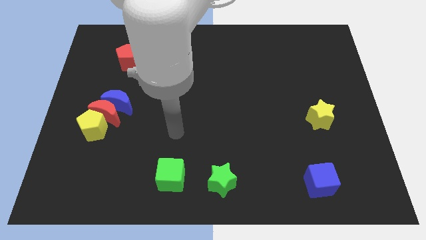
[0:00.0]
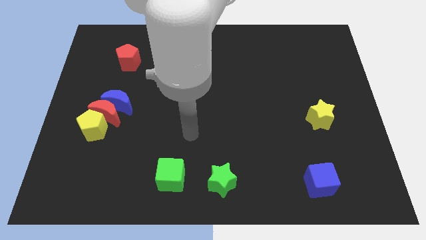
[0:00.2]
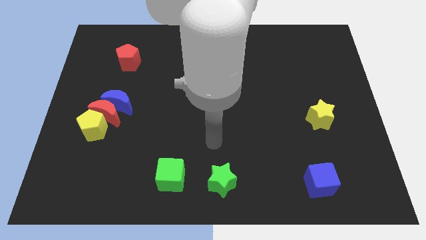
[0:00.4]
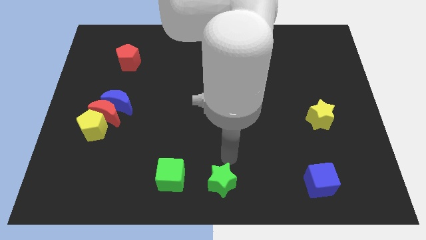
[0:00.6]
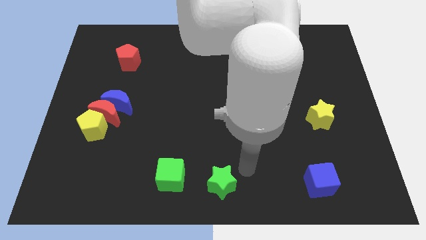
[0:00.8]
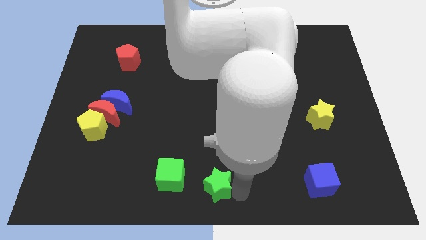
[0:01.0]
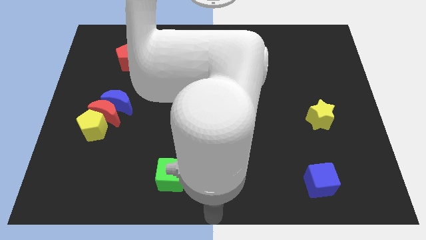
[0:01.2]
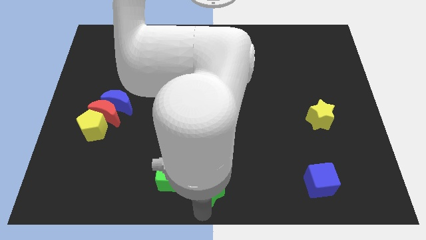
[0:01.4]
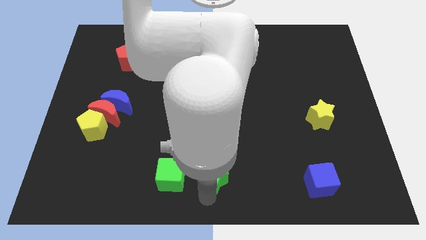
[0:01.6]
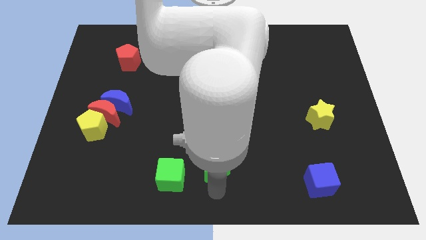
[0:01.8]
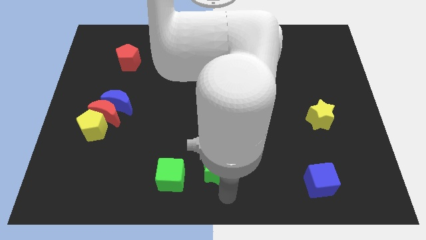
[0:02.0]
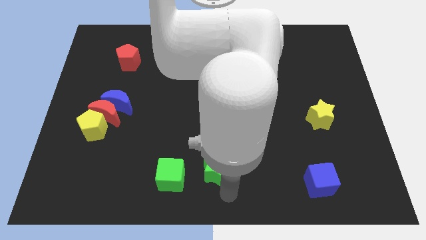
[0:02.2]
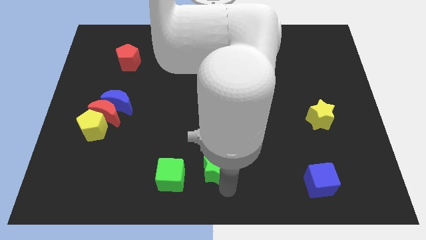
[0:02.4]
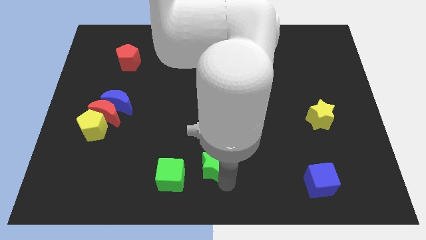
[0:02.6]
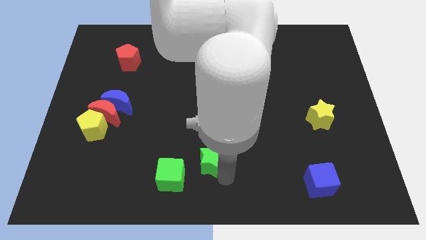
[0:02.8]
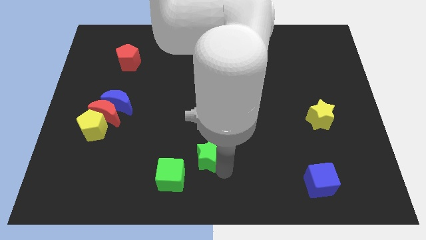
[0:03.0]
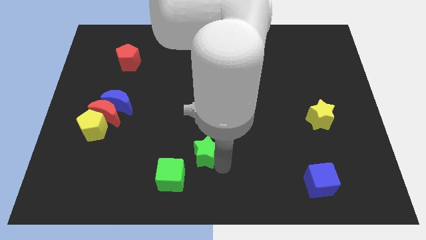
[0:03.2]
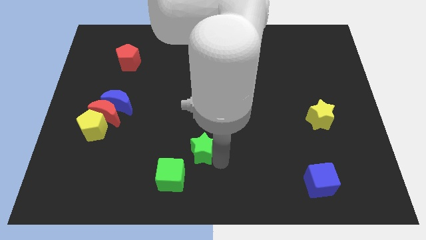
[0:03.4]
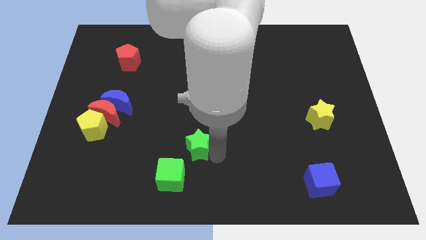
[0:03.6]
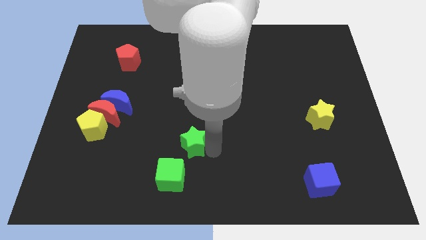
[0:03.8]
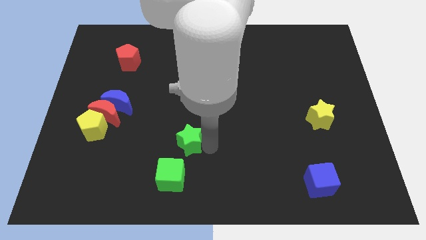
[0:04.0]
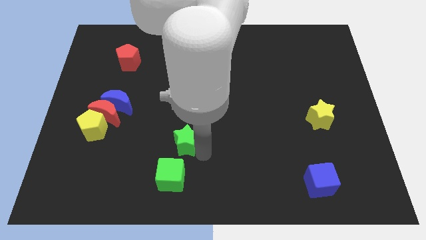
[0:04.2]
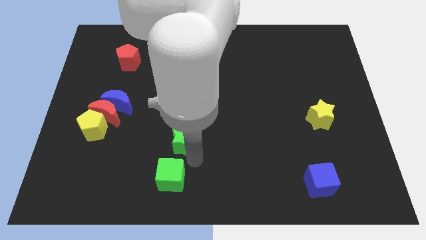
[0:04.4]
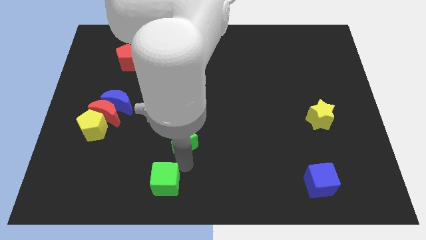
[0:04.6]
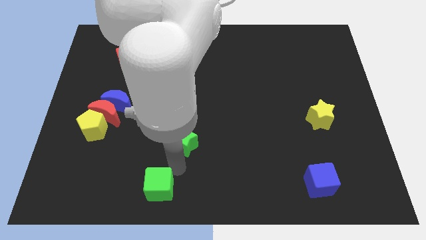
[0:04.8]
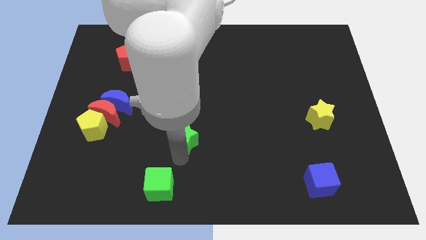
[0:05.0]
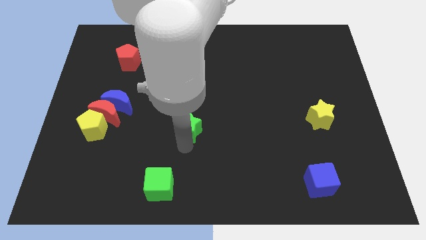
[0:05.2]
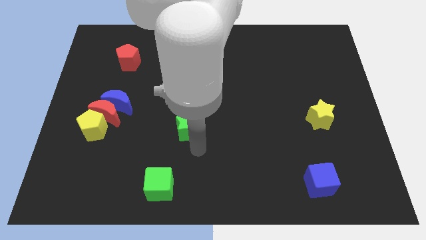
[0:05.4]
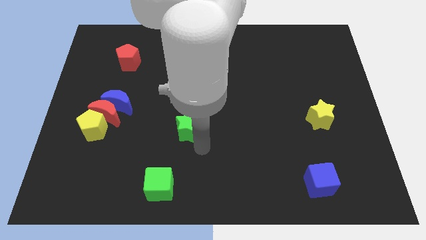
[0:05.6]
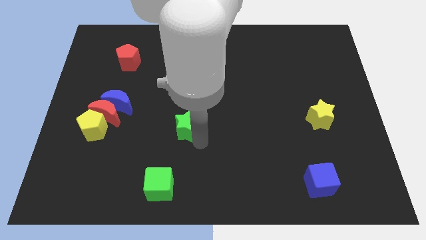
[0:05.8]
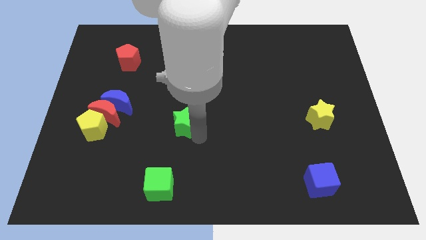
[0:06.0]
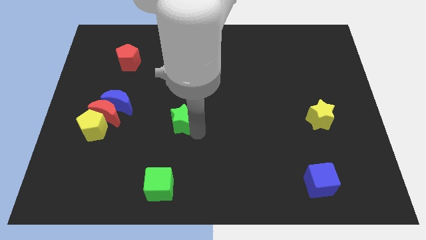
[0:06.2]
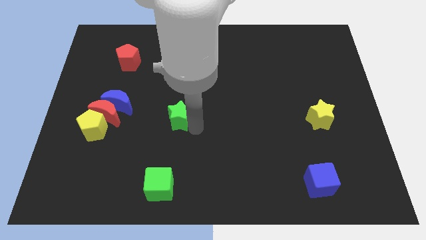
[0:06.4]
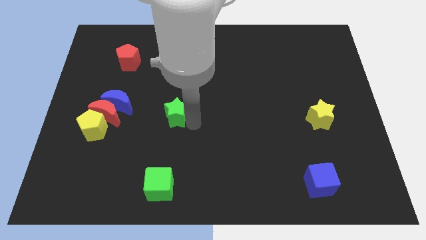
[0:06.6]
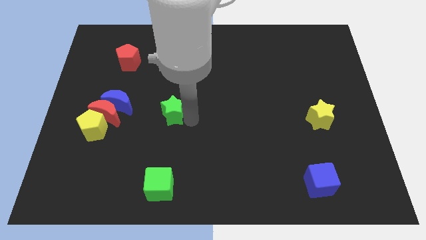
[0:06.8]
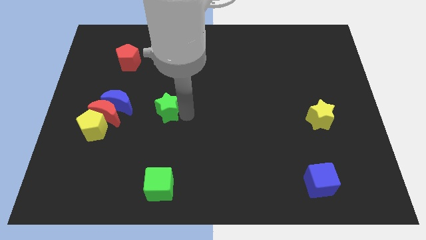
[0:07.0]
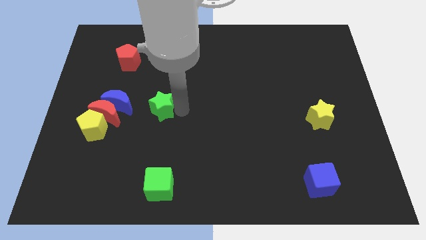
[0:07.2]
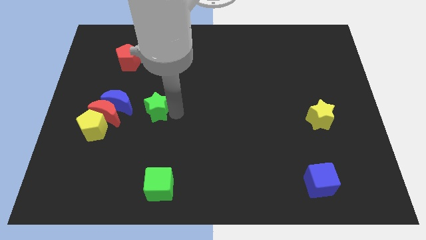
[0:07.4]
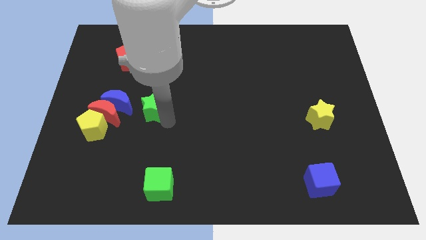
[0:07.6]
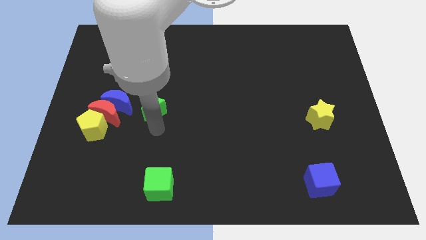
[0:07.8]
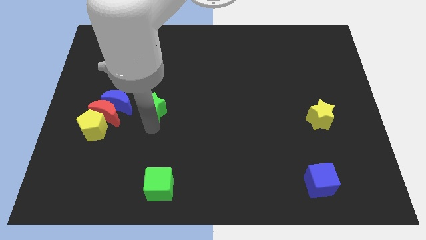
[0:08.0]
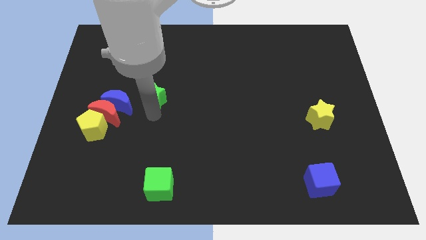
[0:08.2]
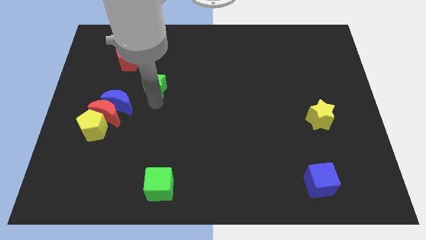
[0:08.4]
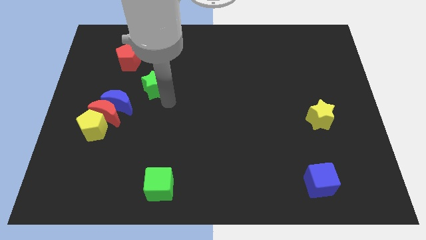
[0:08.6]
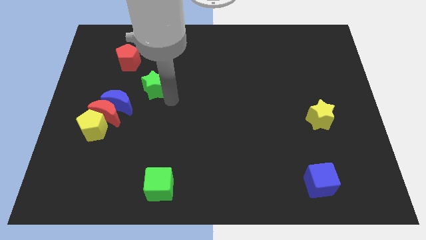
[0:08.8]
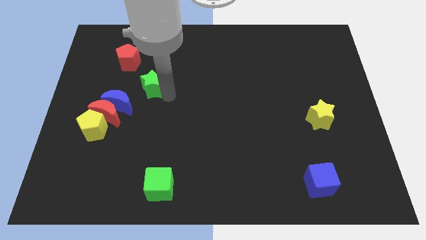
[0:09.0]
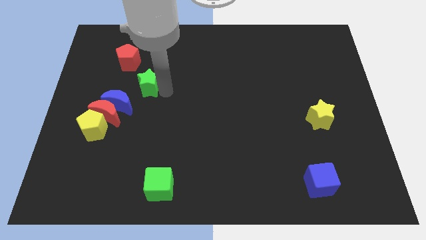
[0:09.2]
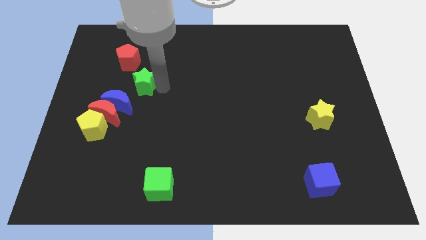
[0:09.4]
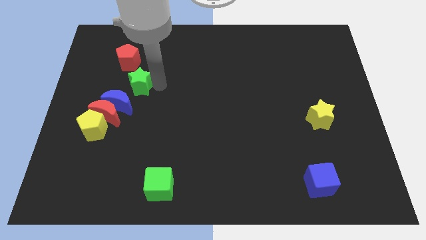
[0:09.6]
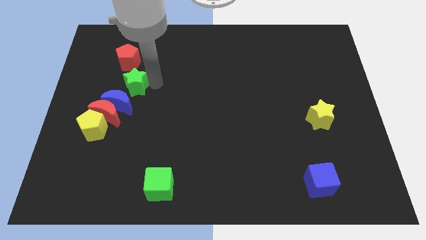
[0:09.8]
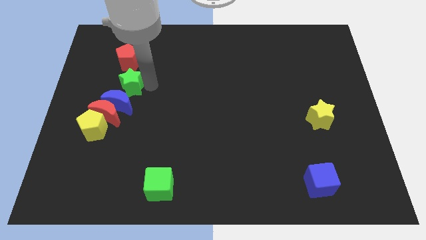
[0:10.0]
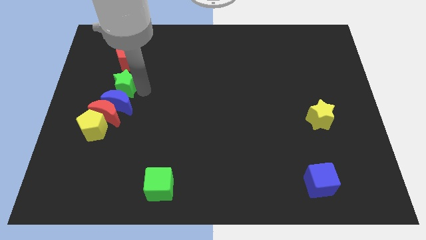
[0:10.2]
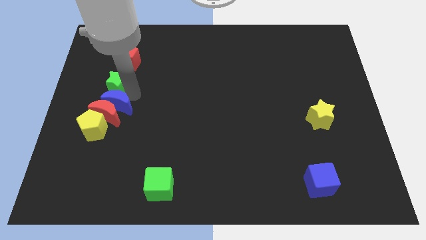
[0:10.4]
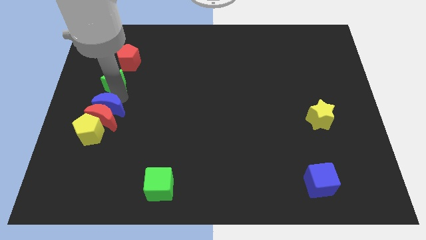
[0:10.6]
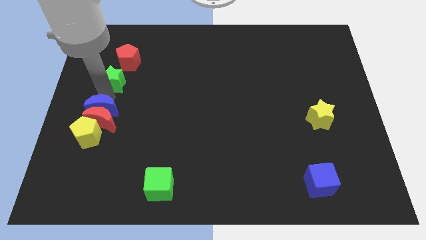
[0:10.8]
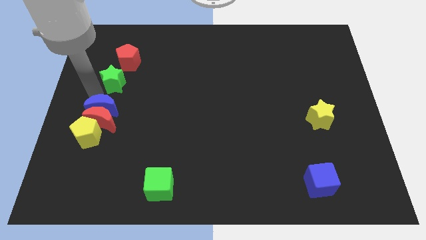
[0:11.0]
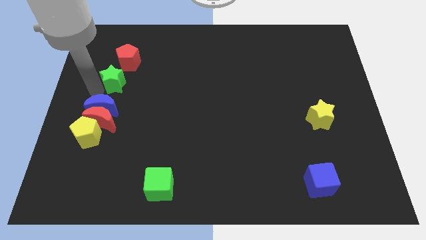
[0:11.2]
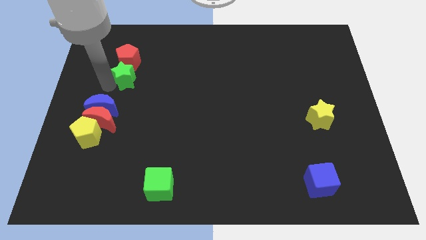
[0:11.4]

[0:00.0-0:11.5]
push the green star next to the red pentagon

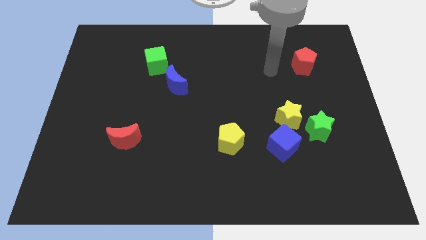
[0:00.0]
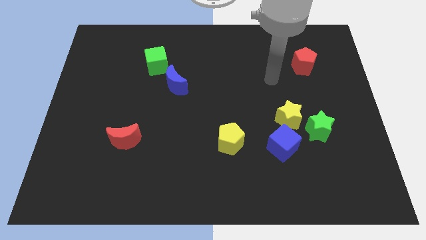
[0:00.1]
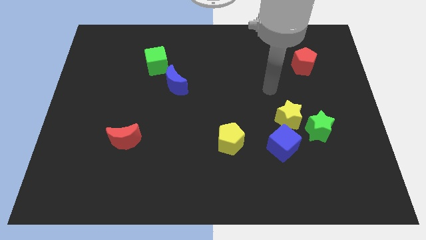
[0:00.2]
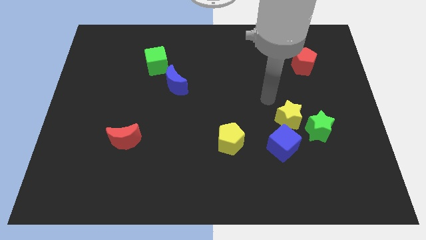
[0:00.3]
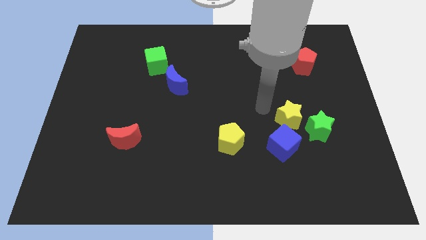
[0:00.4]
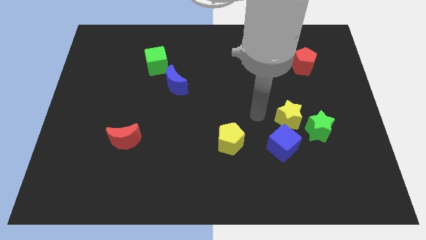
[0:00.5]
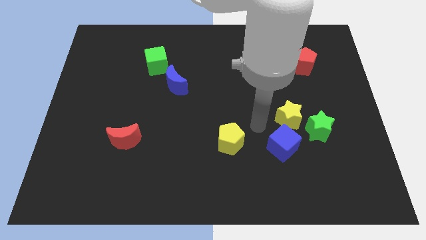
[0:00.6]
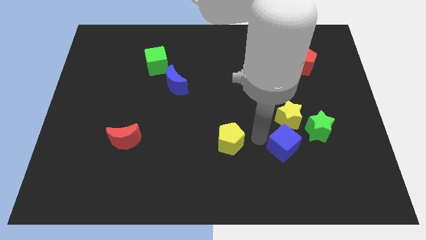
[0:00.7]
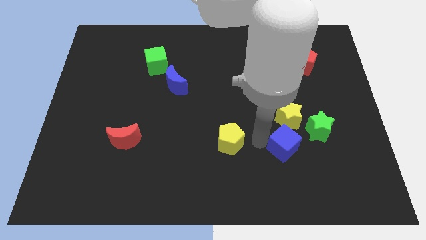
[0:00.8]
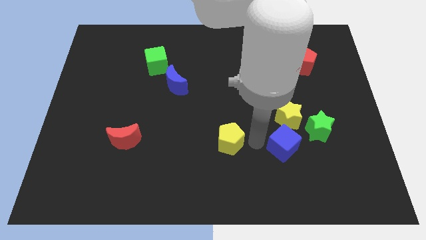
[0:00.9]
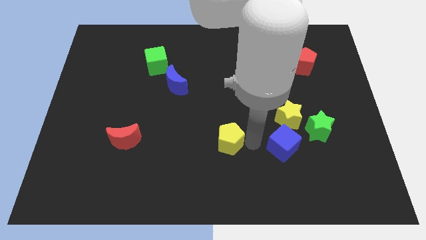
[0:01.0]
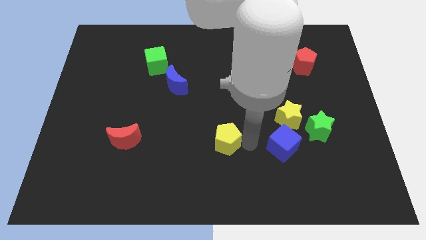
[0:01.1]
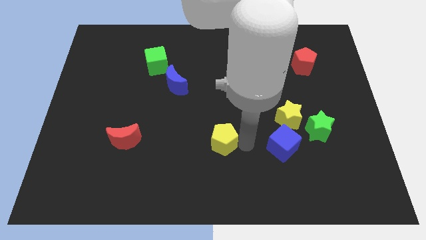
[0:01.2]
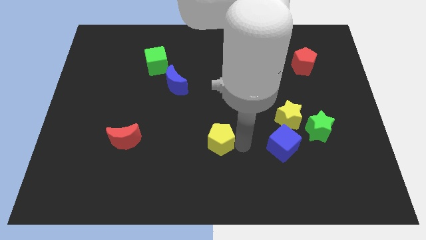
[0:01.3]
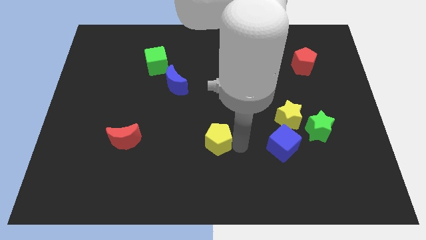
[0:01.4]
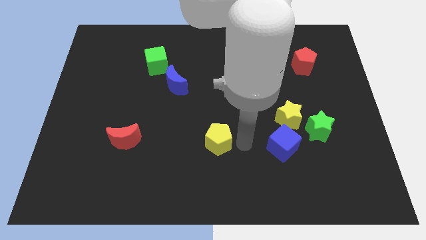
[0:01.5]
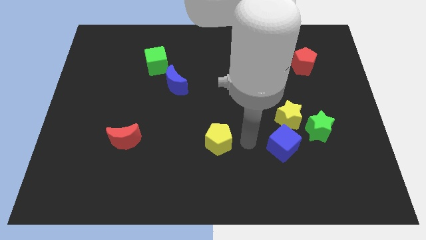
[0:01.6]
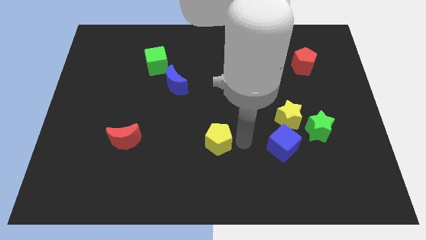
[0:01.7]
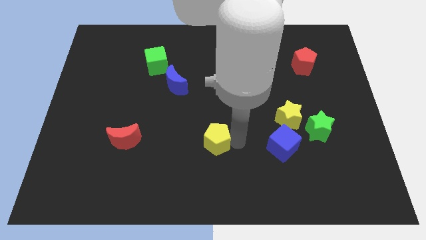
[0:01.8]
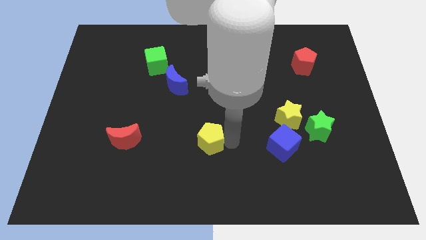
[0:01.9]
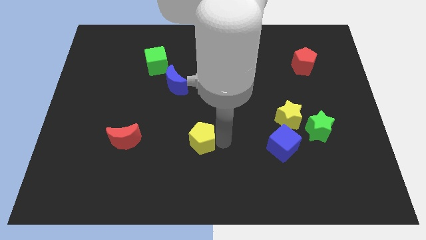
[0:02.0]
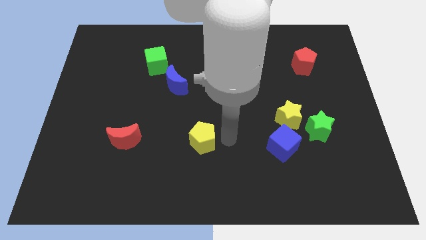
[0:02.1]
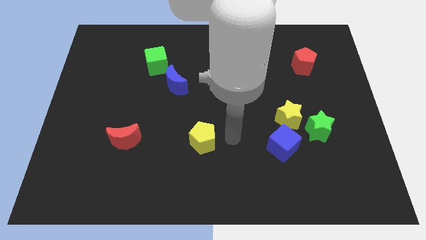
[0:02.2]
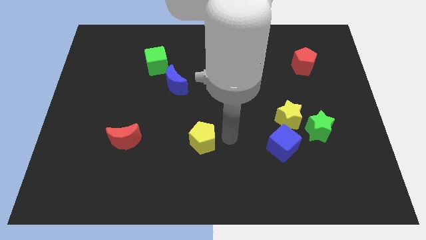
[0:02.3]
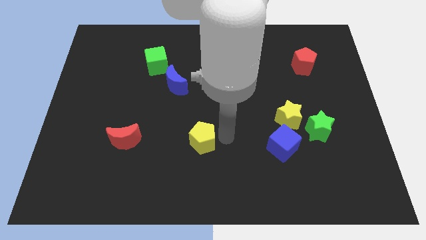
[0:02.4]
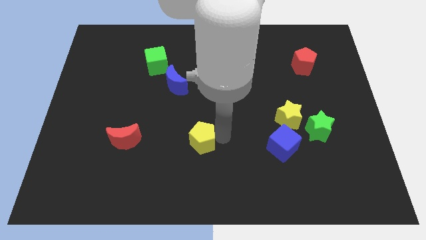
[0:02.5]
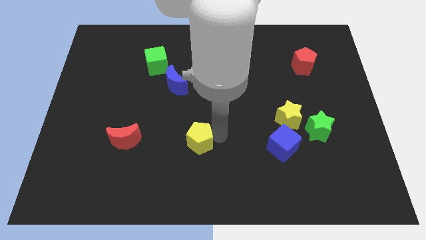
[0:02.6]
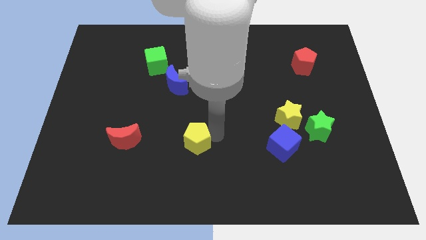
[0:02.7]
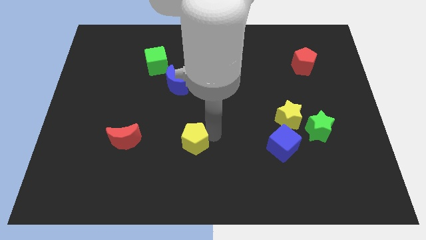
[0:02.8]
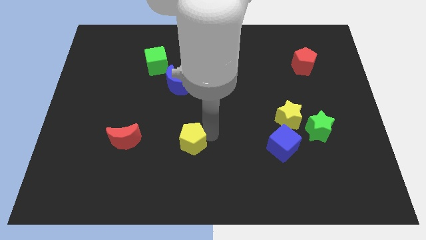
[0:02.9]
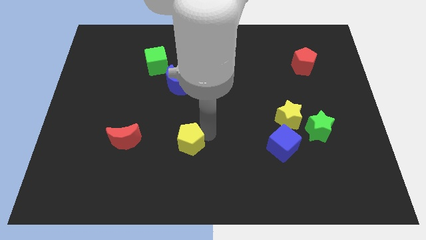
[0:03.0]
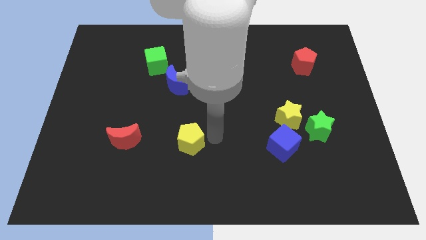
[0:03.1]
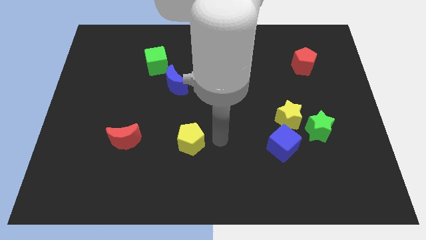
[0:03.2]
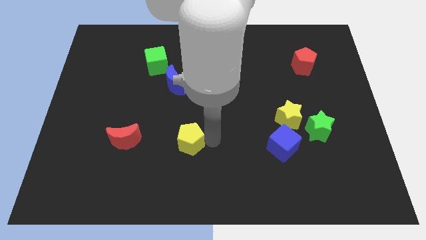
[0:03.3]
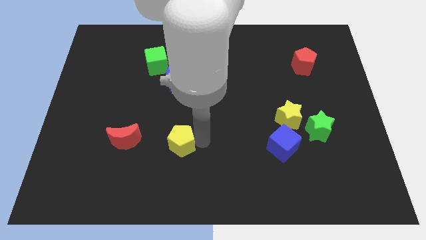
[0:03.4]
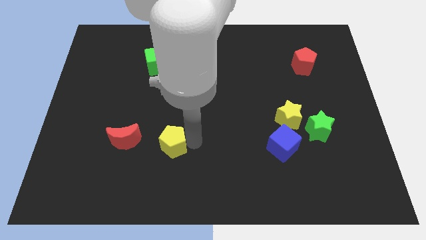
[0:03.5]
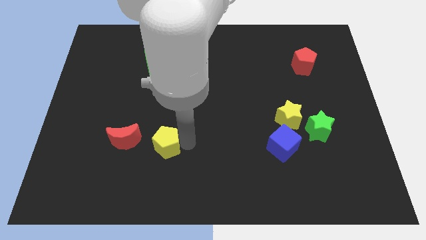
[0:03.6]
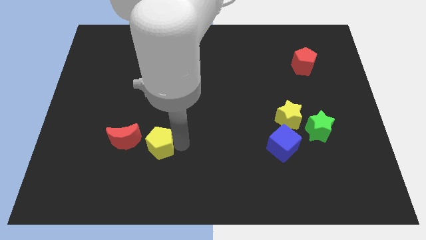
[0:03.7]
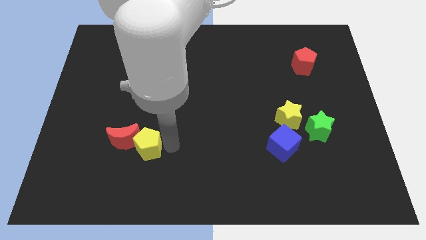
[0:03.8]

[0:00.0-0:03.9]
move the yellow pentagon towards the red moon
